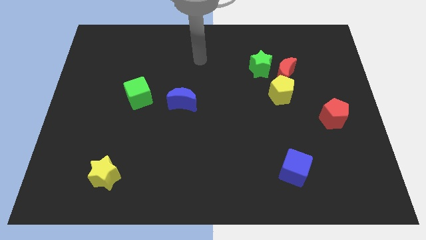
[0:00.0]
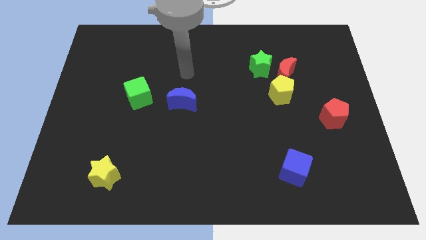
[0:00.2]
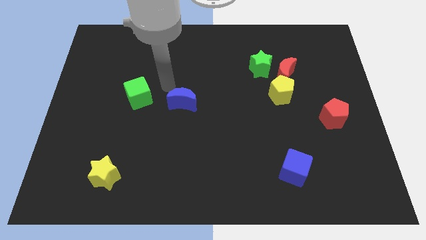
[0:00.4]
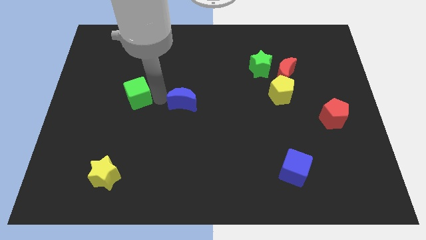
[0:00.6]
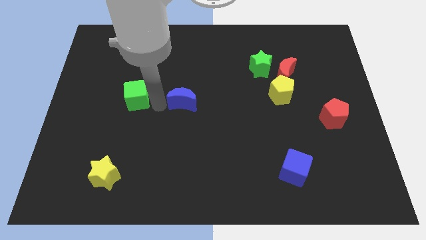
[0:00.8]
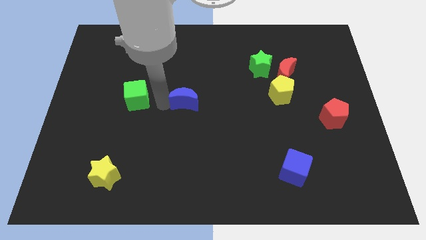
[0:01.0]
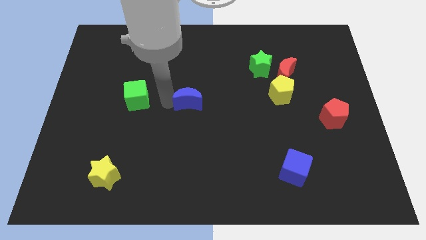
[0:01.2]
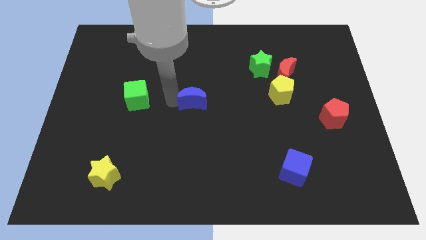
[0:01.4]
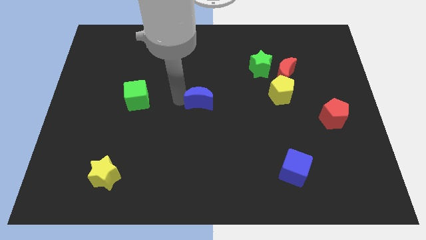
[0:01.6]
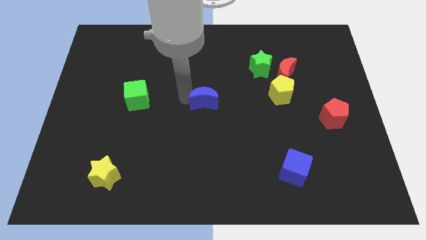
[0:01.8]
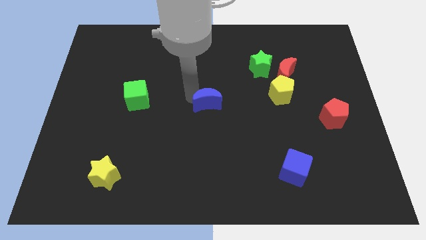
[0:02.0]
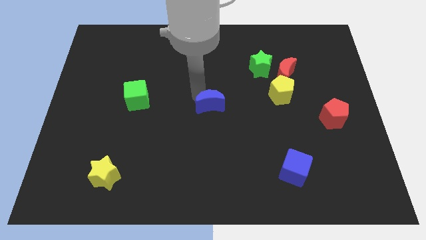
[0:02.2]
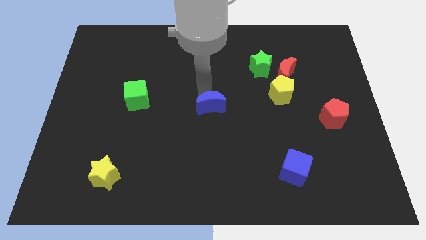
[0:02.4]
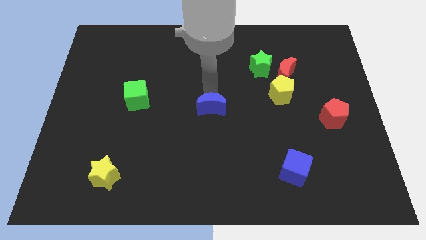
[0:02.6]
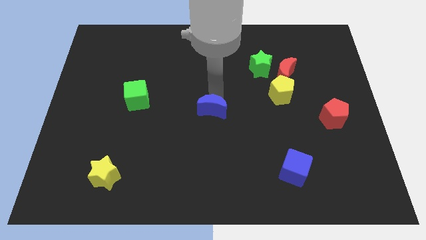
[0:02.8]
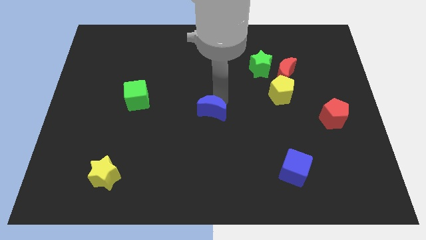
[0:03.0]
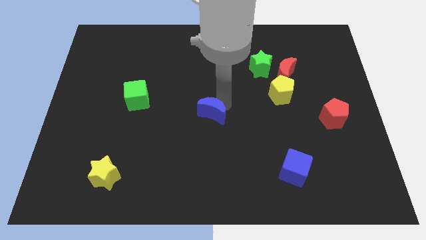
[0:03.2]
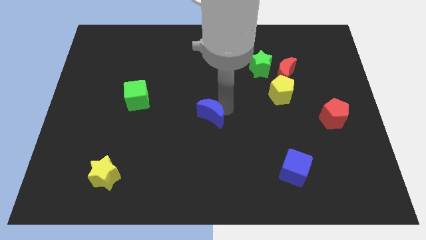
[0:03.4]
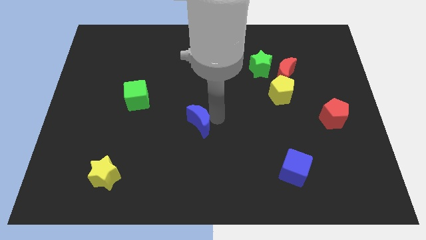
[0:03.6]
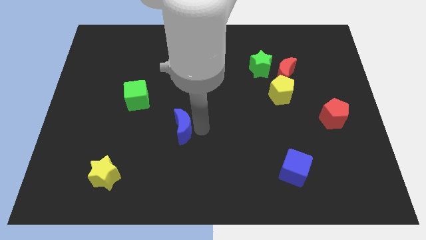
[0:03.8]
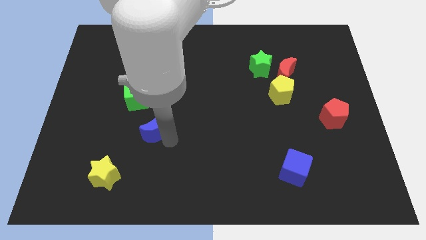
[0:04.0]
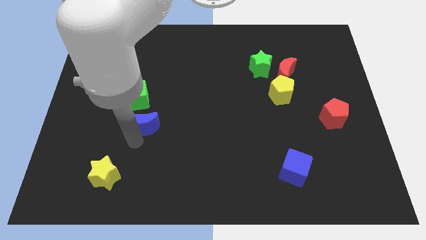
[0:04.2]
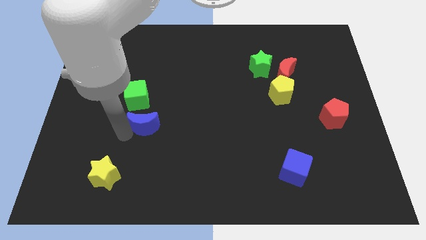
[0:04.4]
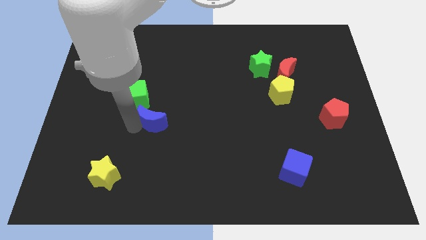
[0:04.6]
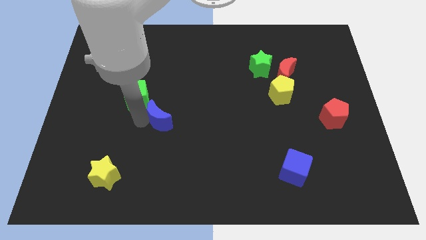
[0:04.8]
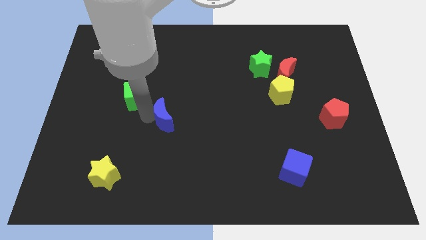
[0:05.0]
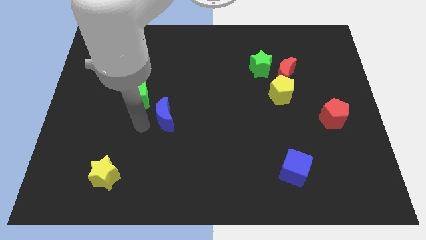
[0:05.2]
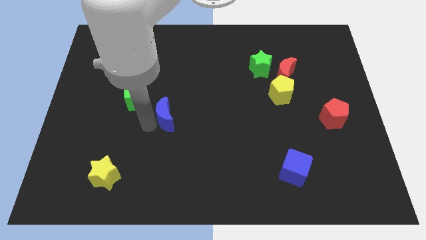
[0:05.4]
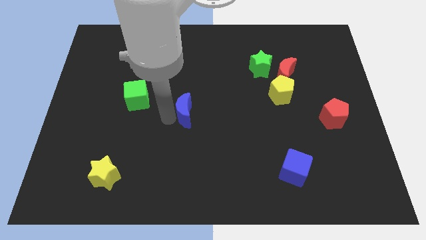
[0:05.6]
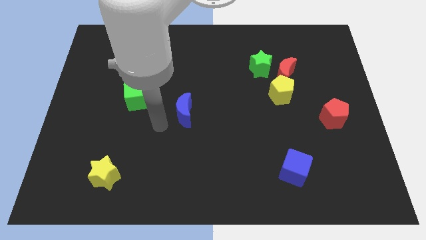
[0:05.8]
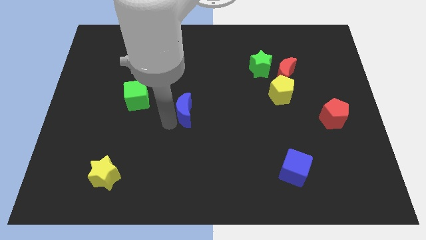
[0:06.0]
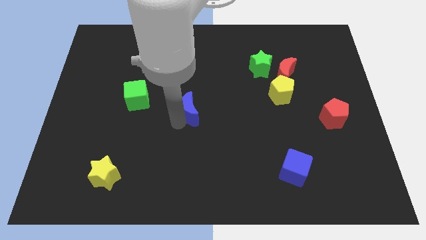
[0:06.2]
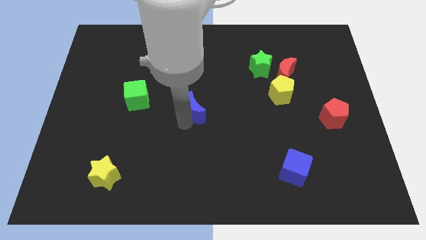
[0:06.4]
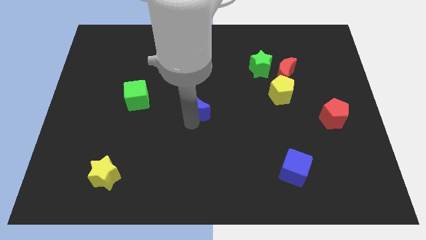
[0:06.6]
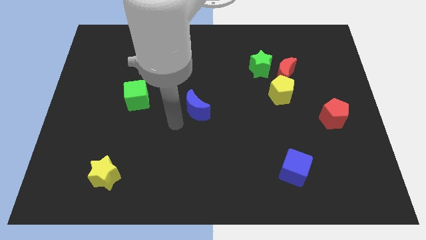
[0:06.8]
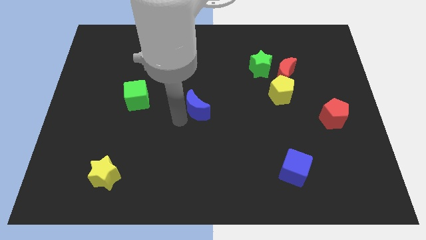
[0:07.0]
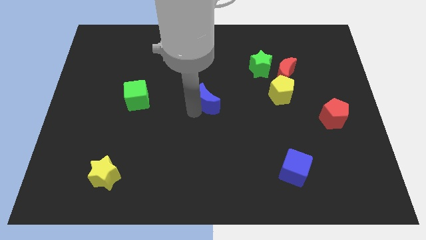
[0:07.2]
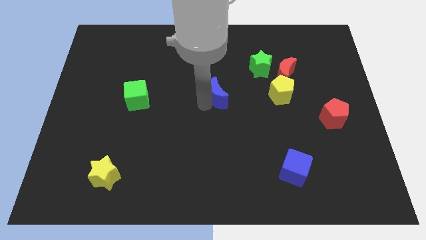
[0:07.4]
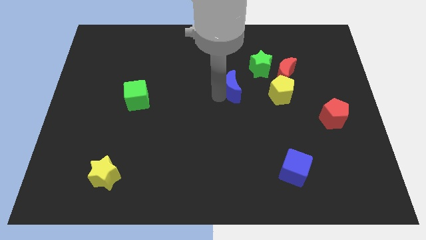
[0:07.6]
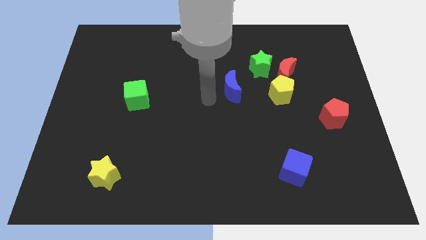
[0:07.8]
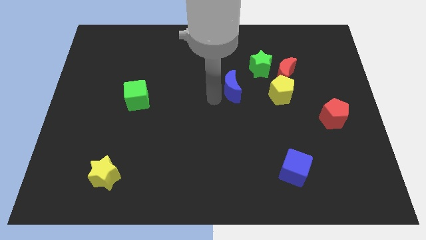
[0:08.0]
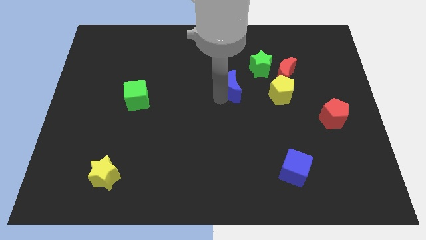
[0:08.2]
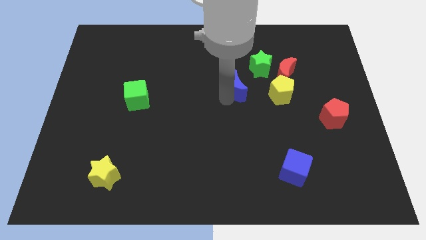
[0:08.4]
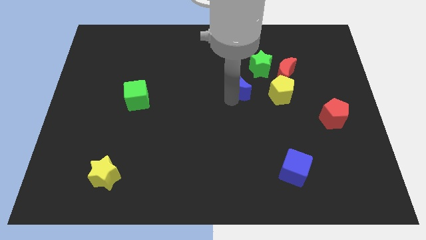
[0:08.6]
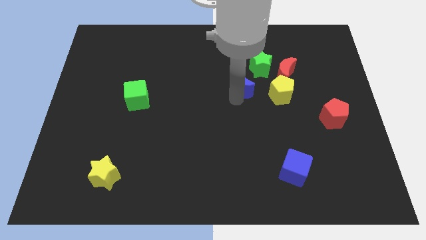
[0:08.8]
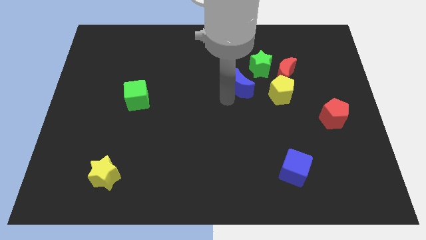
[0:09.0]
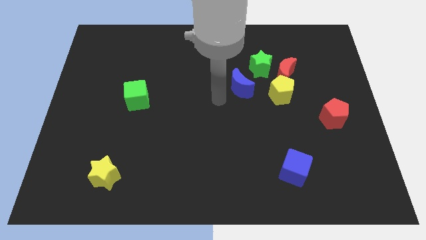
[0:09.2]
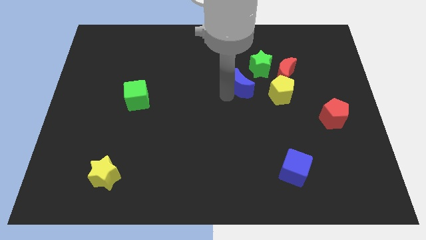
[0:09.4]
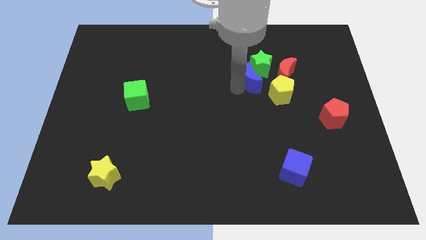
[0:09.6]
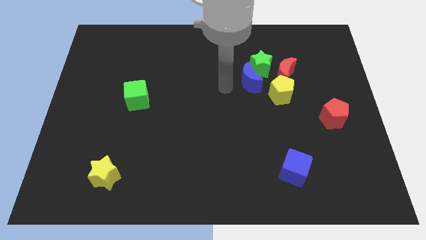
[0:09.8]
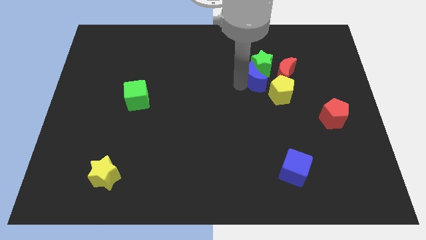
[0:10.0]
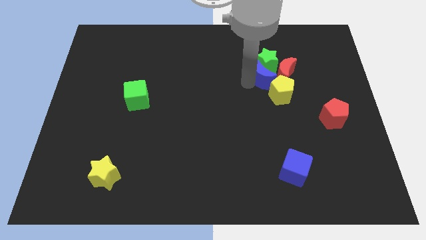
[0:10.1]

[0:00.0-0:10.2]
put the blue moon next to the red moon

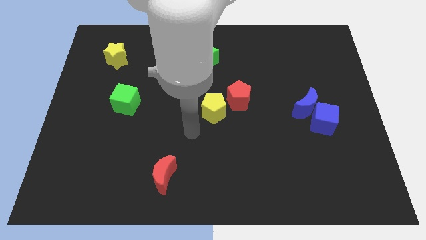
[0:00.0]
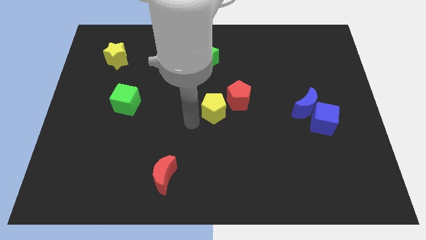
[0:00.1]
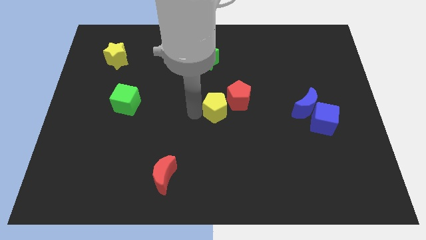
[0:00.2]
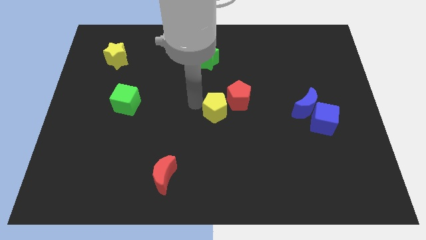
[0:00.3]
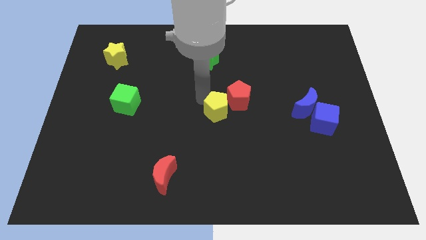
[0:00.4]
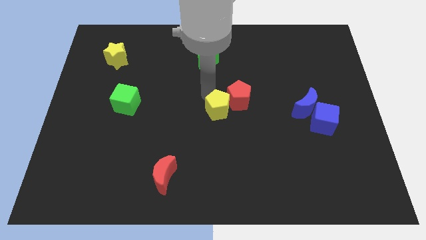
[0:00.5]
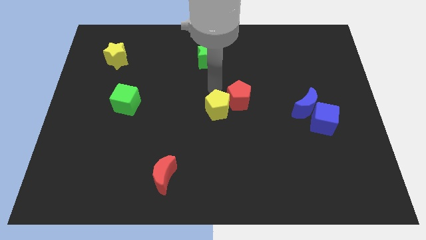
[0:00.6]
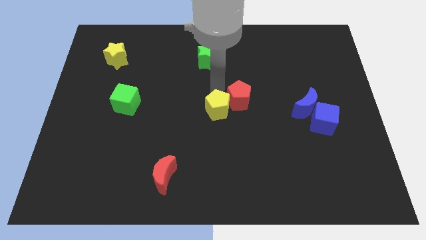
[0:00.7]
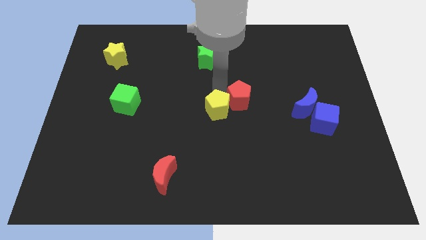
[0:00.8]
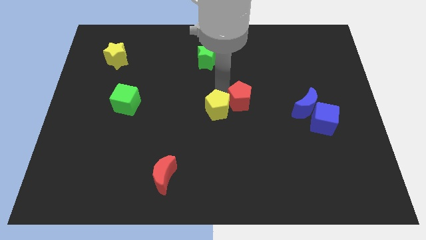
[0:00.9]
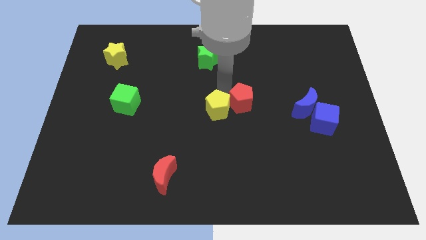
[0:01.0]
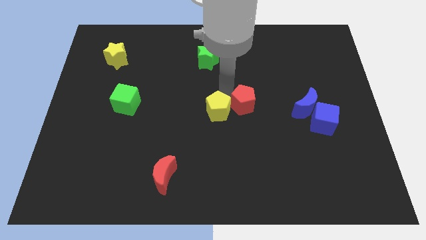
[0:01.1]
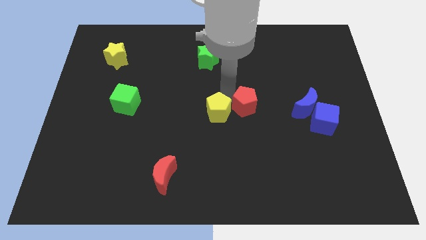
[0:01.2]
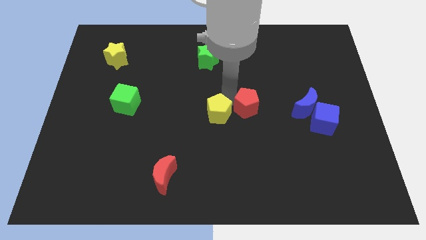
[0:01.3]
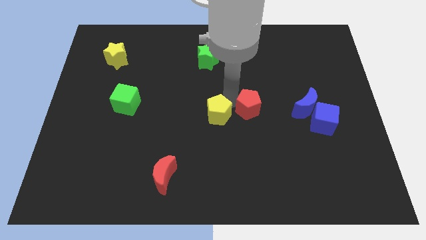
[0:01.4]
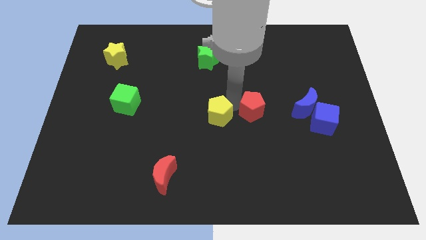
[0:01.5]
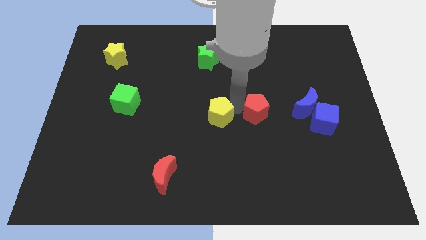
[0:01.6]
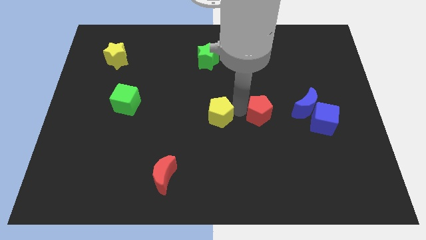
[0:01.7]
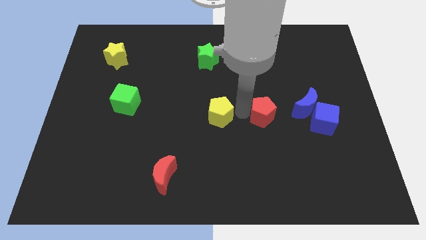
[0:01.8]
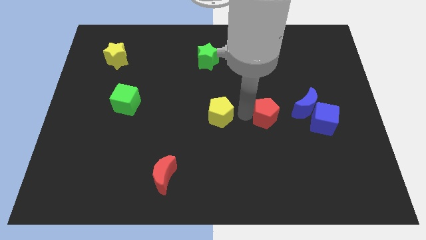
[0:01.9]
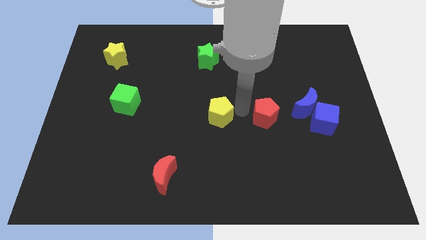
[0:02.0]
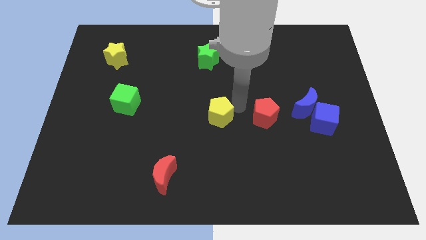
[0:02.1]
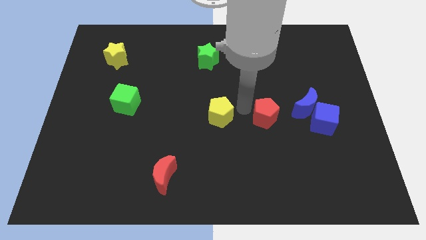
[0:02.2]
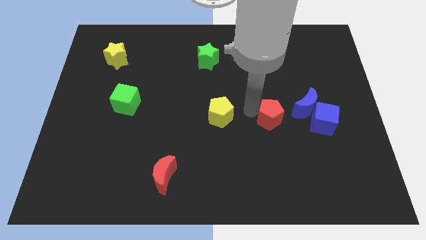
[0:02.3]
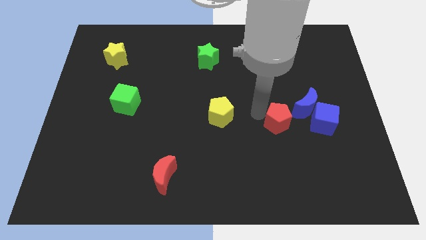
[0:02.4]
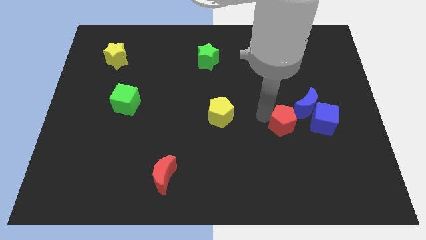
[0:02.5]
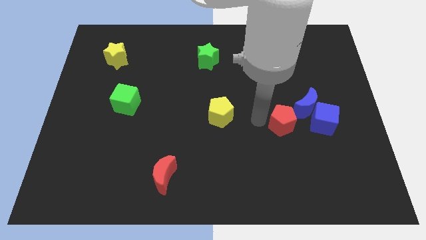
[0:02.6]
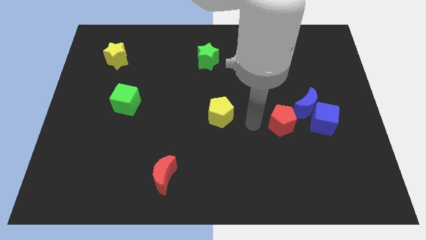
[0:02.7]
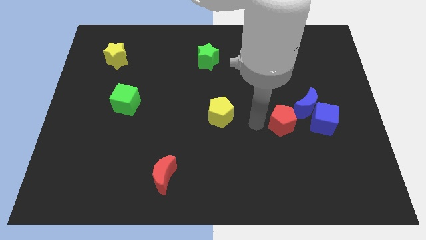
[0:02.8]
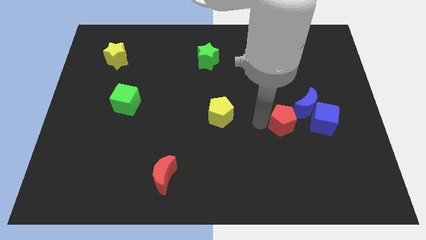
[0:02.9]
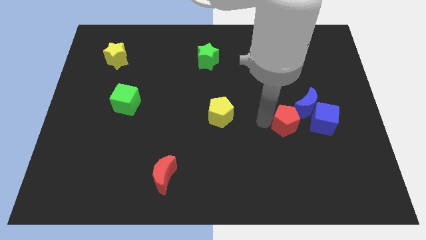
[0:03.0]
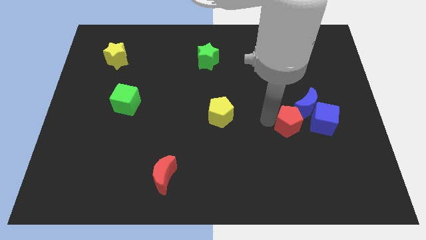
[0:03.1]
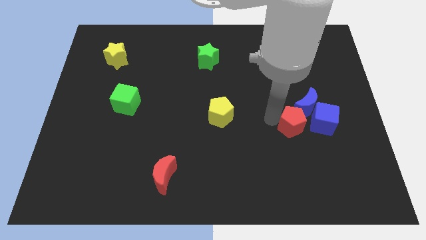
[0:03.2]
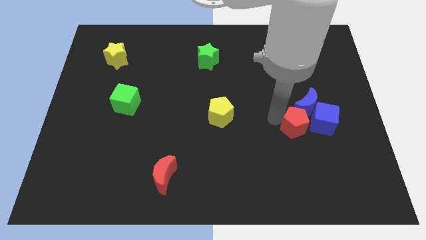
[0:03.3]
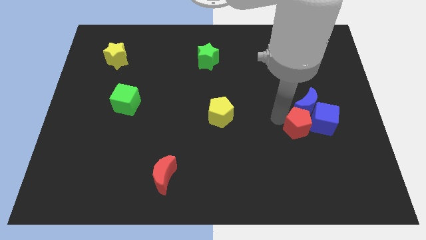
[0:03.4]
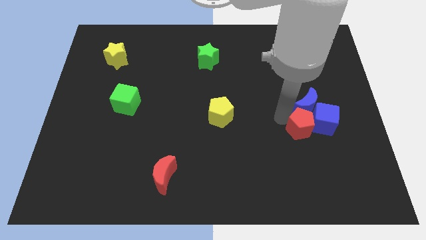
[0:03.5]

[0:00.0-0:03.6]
put the red pentagon towards the blue cube
